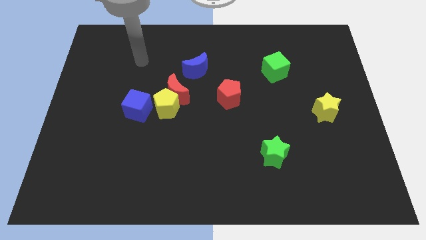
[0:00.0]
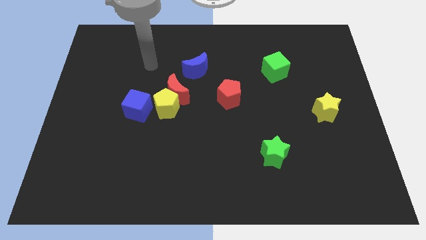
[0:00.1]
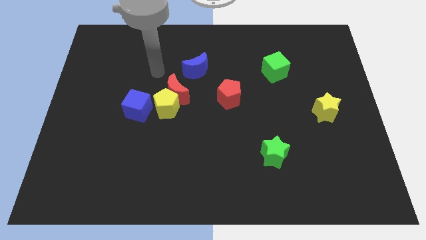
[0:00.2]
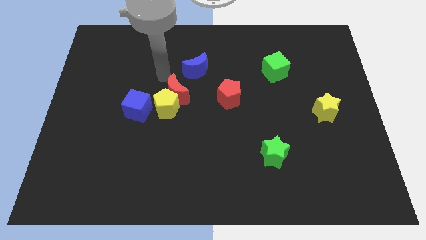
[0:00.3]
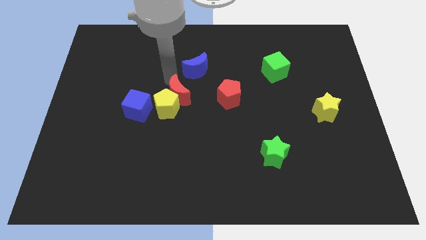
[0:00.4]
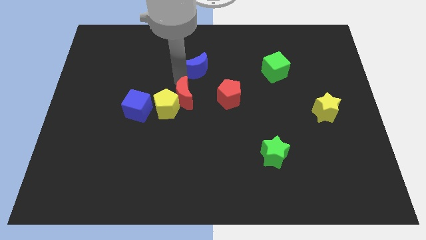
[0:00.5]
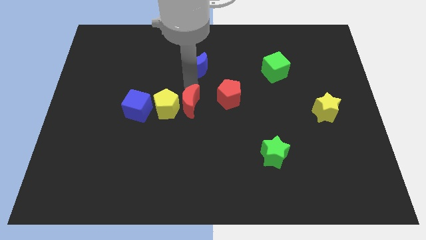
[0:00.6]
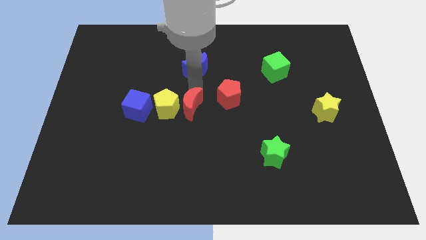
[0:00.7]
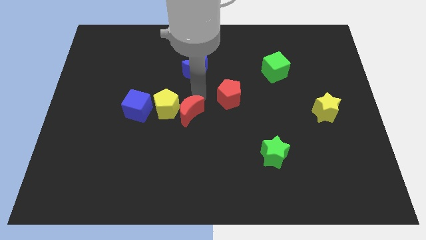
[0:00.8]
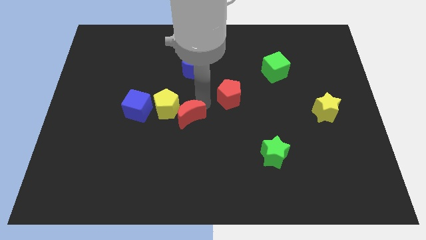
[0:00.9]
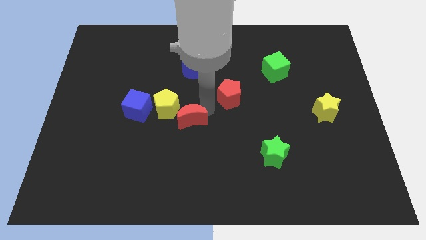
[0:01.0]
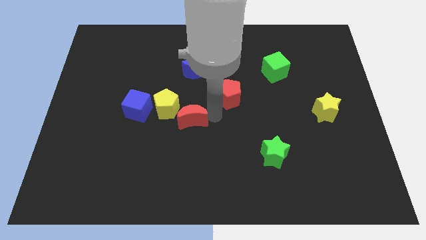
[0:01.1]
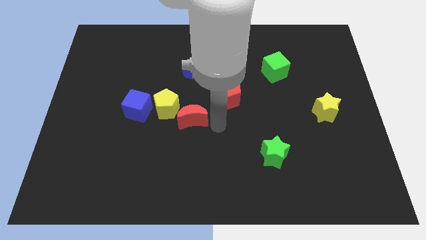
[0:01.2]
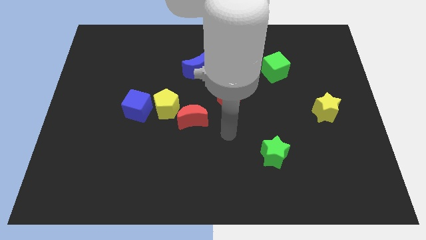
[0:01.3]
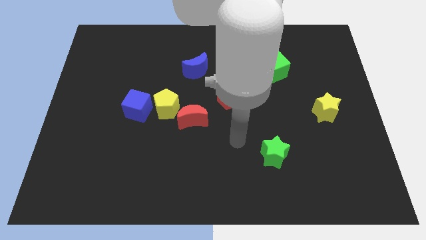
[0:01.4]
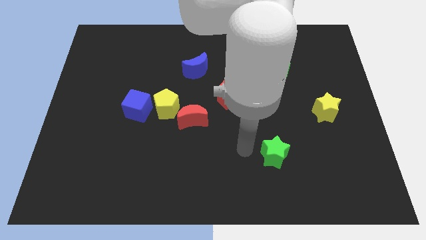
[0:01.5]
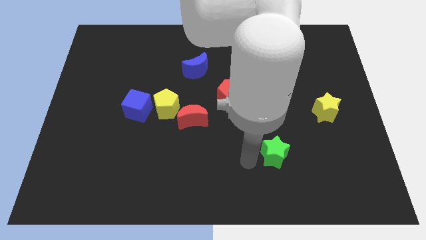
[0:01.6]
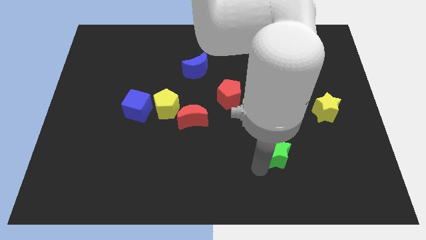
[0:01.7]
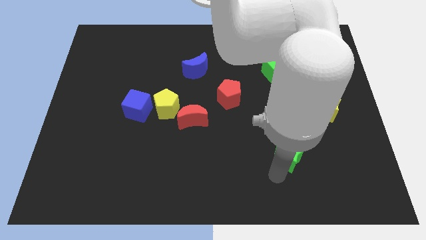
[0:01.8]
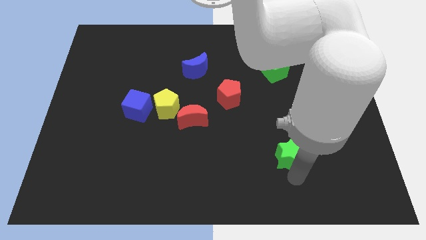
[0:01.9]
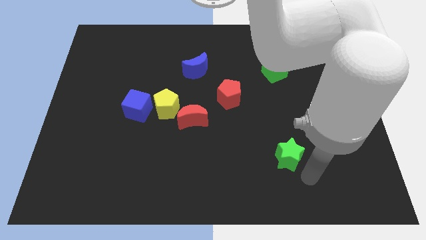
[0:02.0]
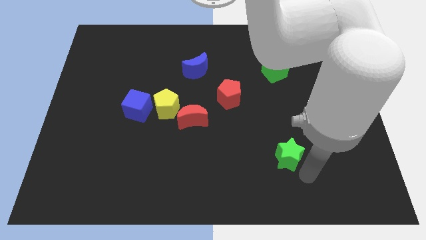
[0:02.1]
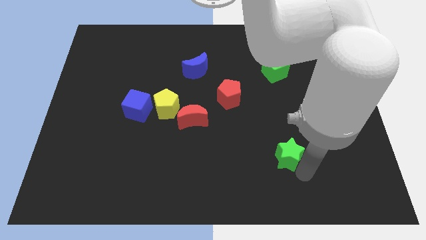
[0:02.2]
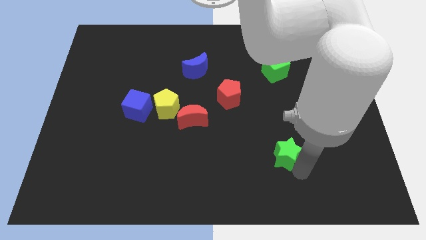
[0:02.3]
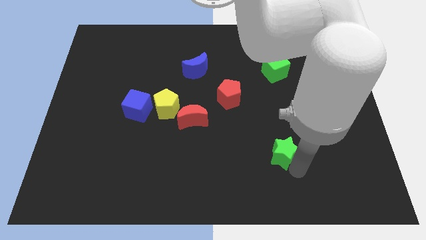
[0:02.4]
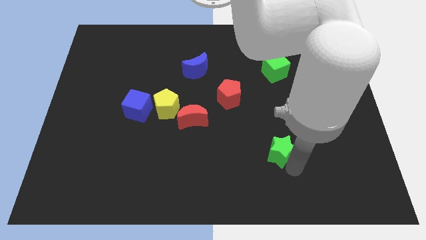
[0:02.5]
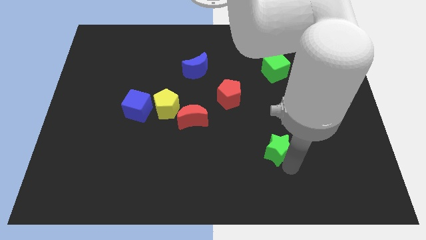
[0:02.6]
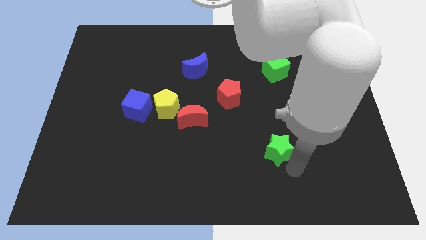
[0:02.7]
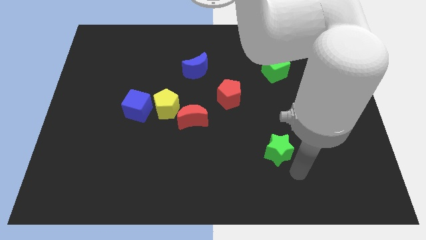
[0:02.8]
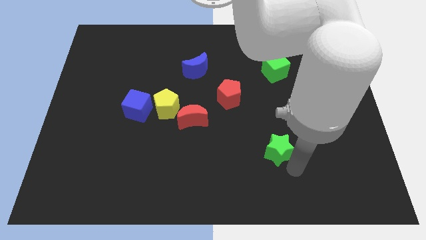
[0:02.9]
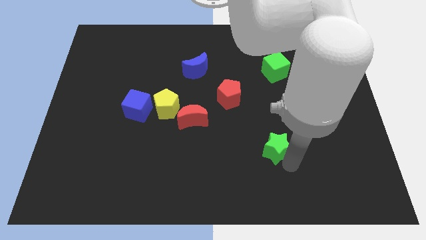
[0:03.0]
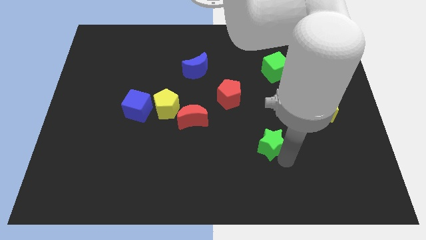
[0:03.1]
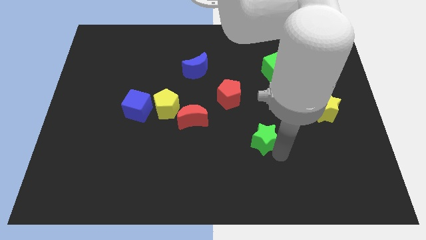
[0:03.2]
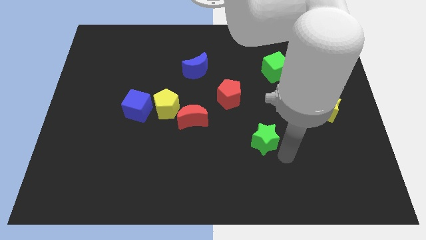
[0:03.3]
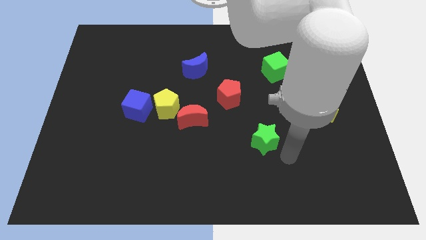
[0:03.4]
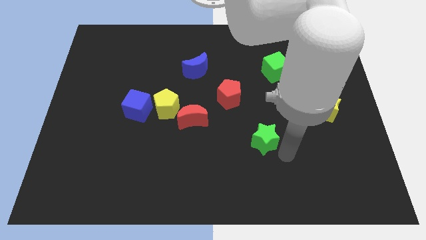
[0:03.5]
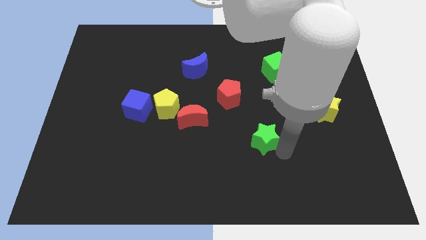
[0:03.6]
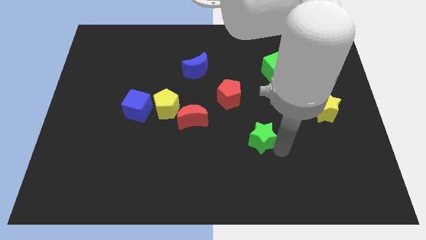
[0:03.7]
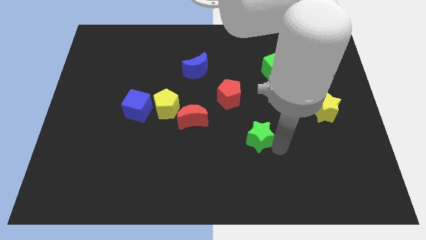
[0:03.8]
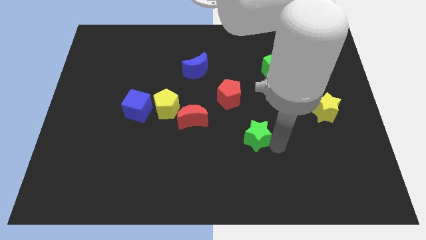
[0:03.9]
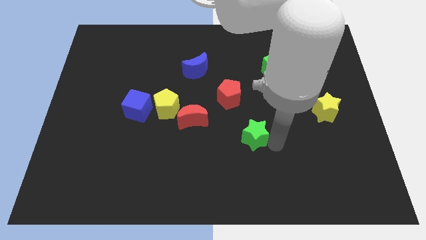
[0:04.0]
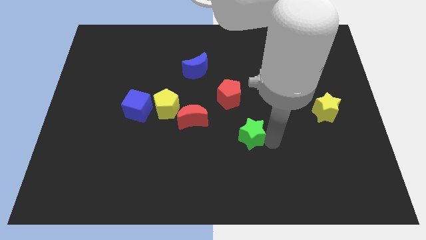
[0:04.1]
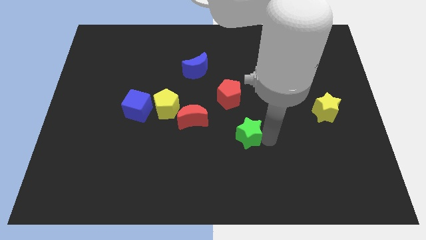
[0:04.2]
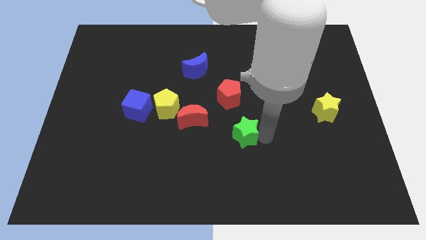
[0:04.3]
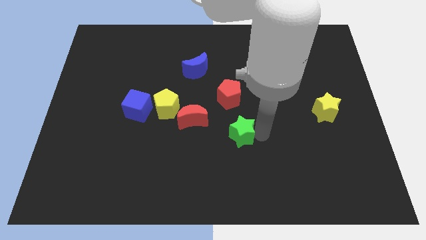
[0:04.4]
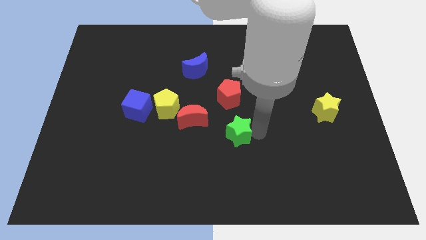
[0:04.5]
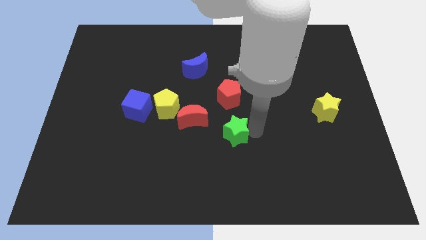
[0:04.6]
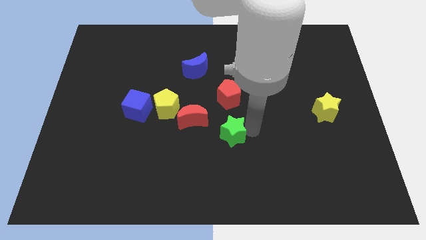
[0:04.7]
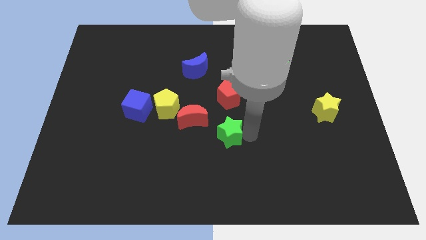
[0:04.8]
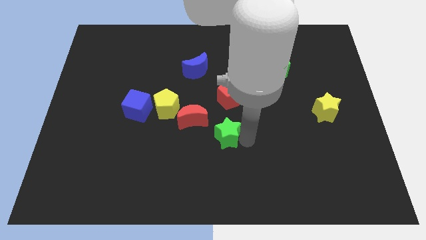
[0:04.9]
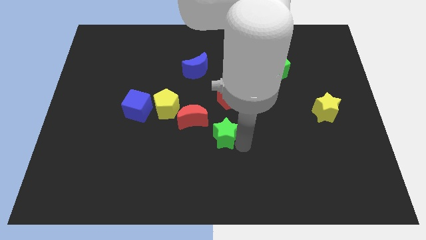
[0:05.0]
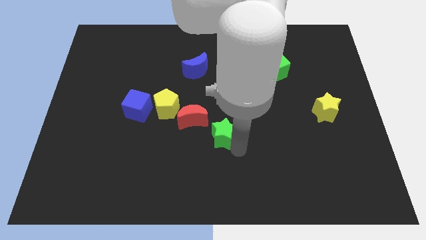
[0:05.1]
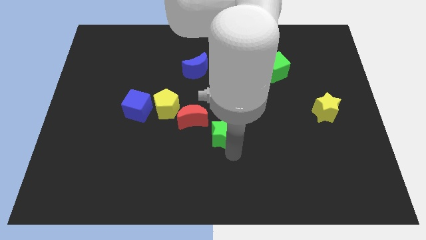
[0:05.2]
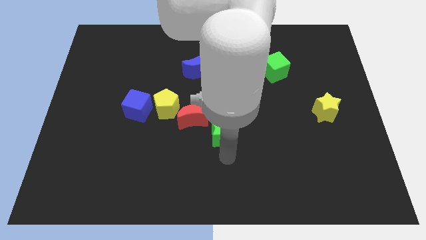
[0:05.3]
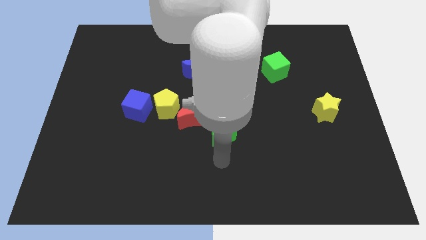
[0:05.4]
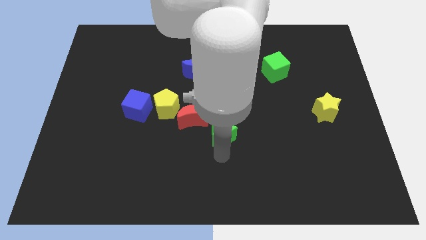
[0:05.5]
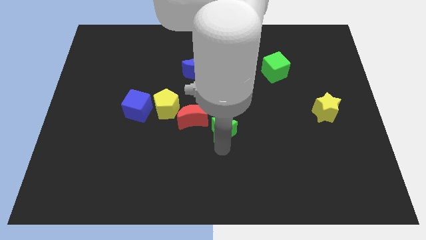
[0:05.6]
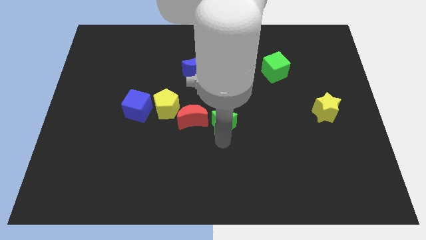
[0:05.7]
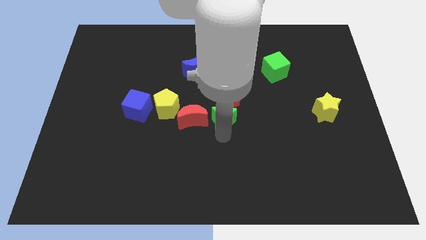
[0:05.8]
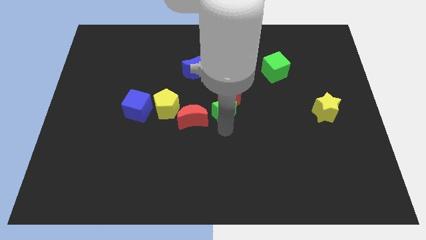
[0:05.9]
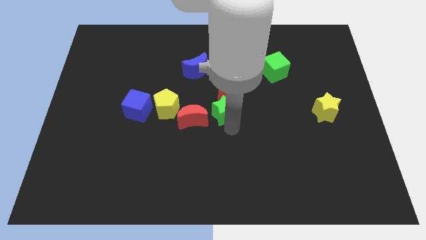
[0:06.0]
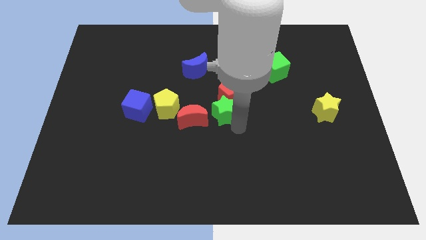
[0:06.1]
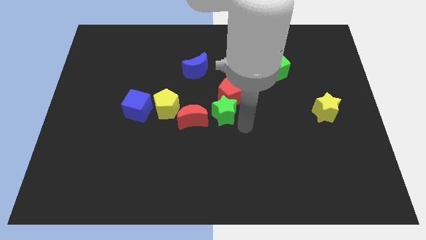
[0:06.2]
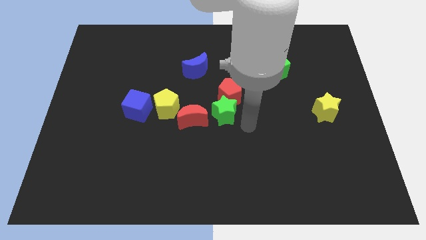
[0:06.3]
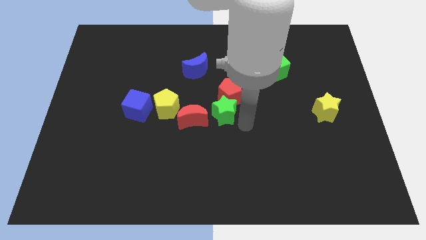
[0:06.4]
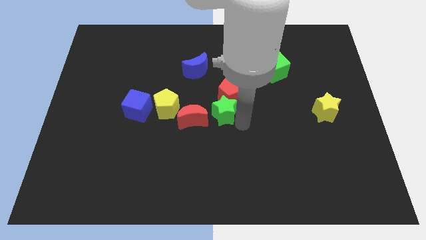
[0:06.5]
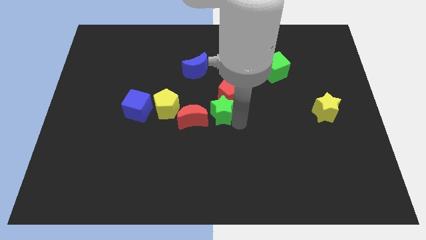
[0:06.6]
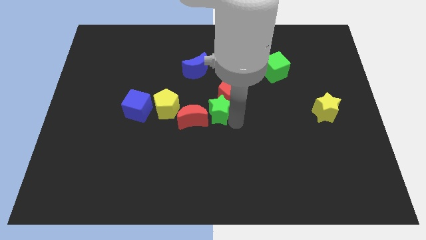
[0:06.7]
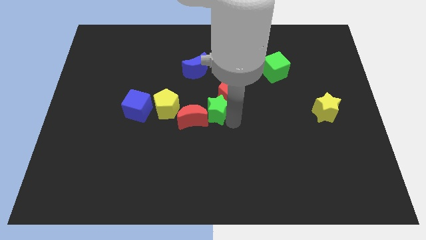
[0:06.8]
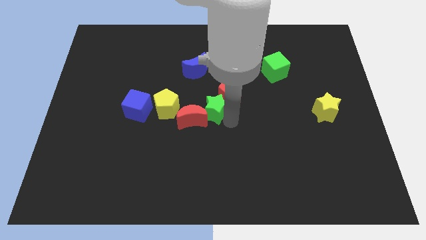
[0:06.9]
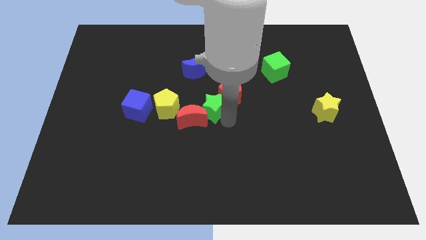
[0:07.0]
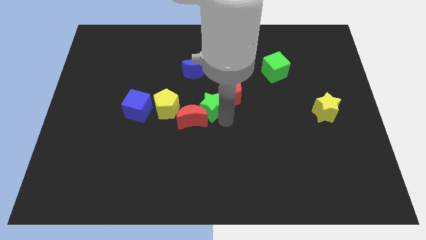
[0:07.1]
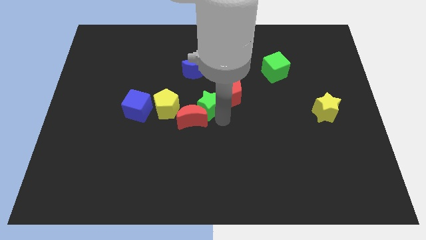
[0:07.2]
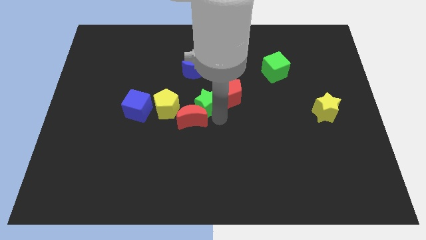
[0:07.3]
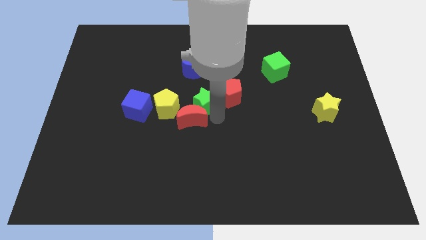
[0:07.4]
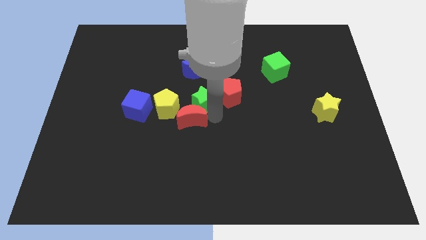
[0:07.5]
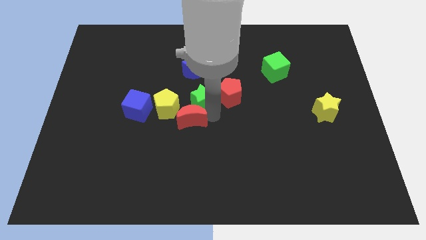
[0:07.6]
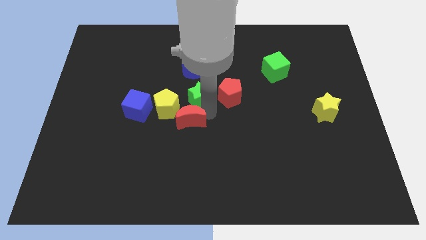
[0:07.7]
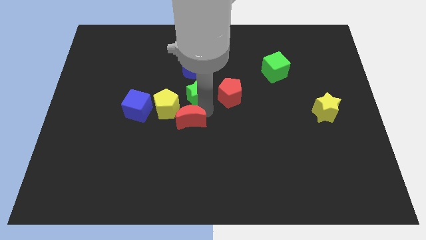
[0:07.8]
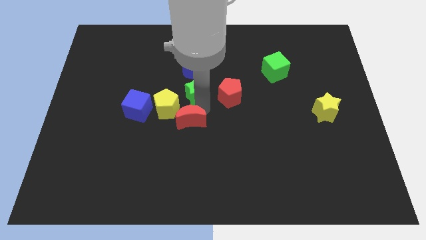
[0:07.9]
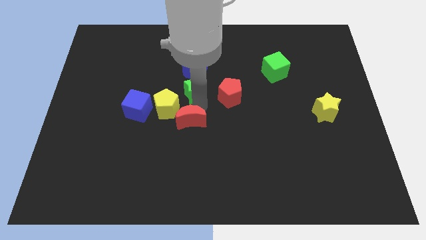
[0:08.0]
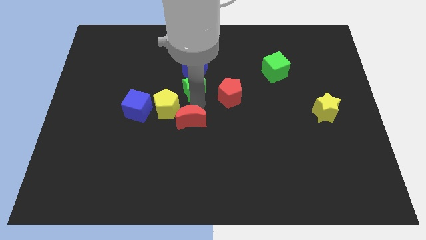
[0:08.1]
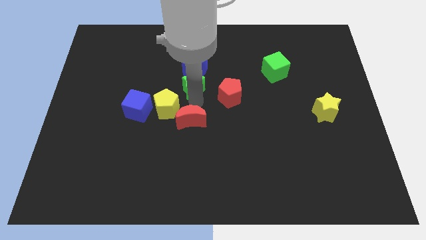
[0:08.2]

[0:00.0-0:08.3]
move the green star to the blue moon
